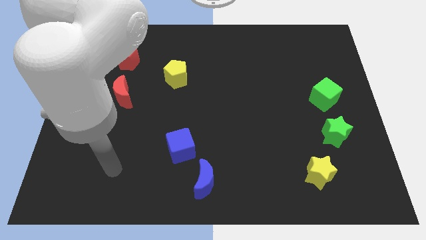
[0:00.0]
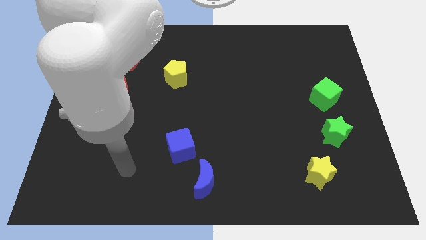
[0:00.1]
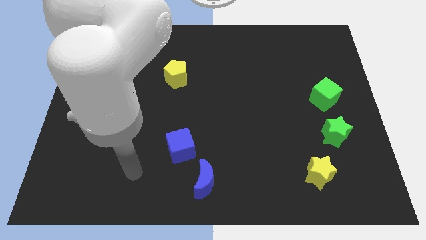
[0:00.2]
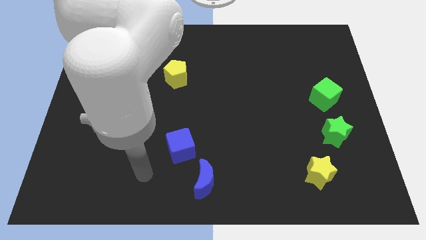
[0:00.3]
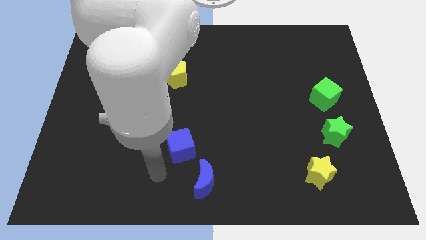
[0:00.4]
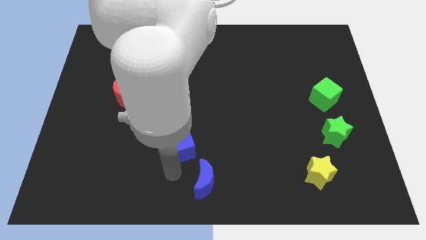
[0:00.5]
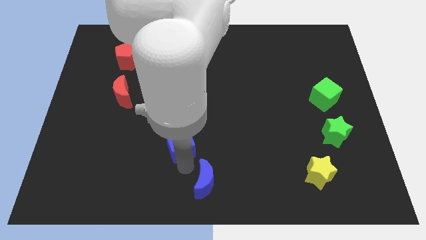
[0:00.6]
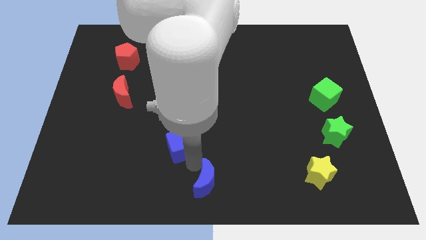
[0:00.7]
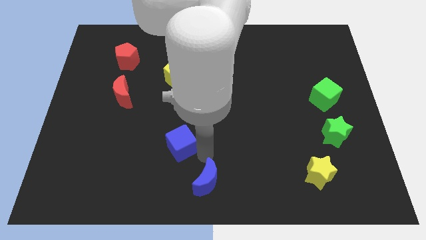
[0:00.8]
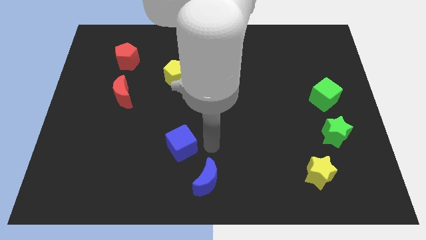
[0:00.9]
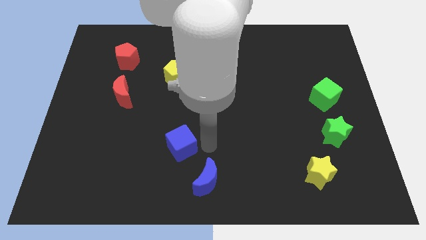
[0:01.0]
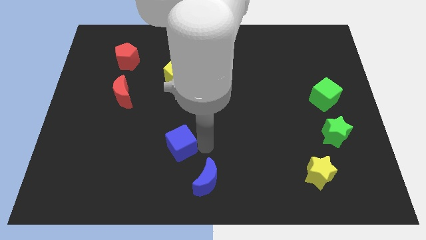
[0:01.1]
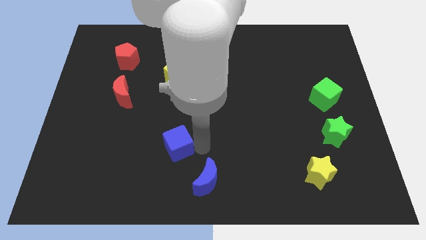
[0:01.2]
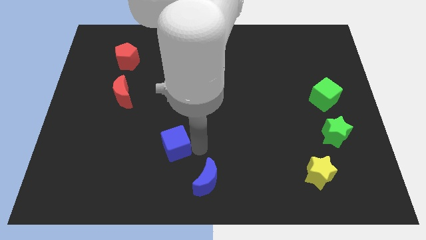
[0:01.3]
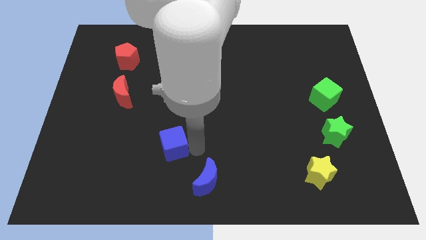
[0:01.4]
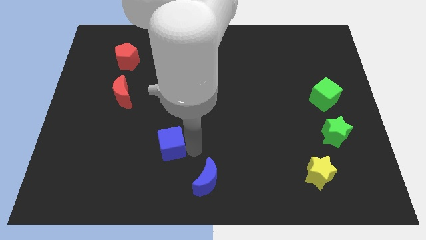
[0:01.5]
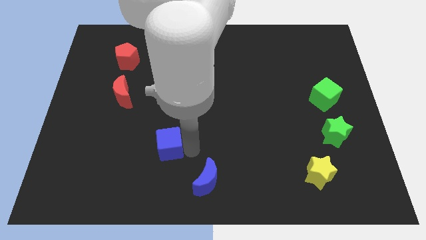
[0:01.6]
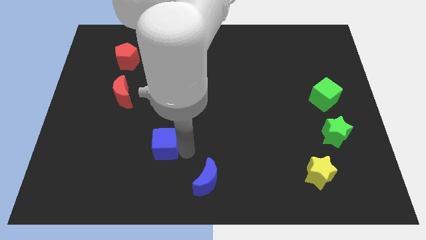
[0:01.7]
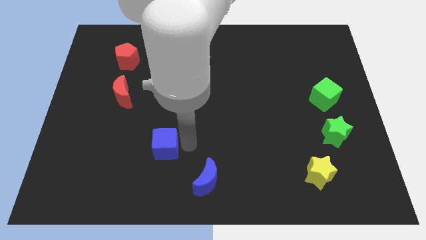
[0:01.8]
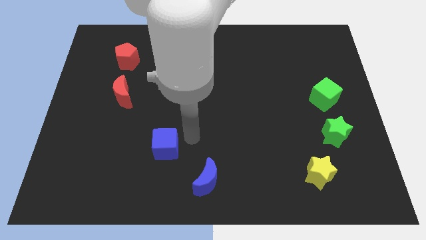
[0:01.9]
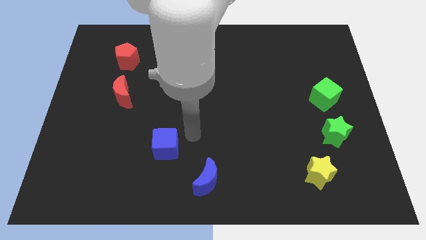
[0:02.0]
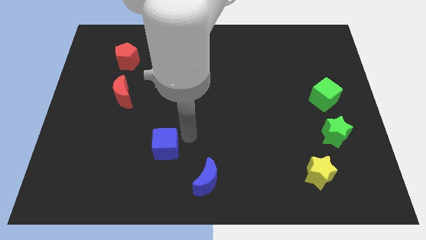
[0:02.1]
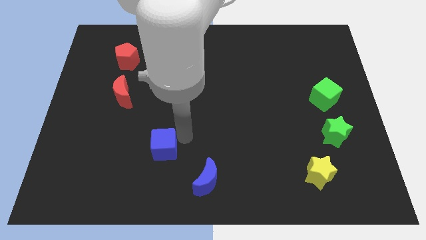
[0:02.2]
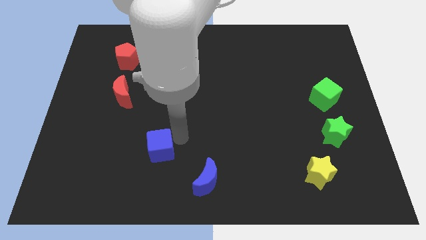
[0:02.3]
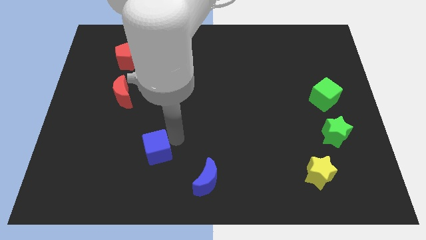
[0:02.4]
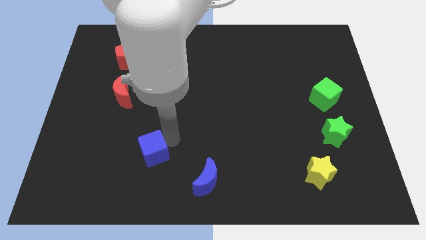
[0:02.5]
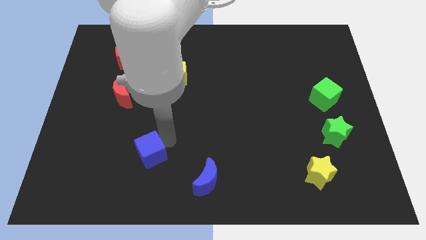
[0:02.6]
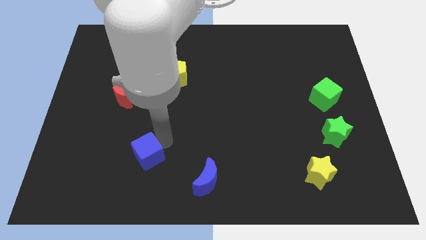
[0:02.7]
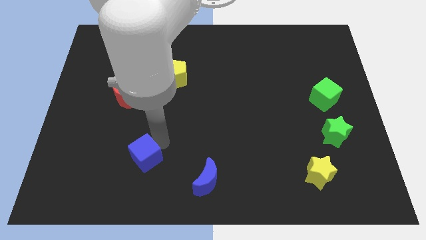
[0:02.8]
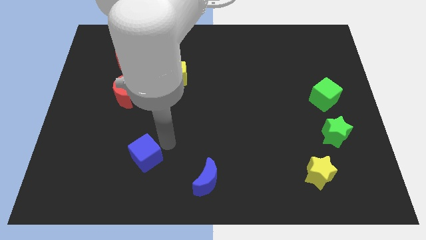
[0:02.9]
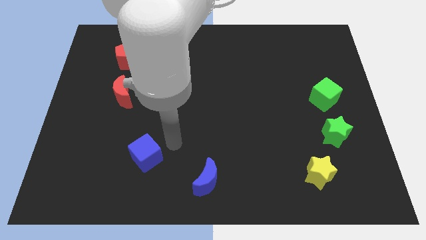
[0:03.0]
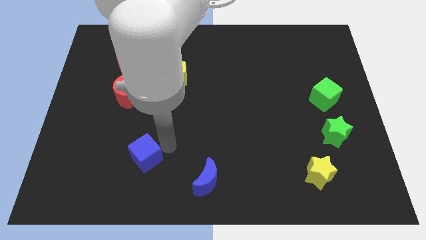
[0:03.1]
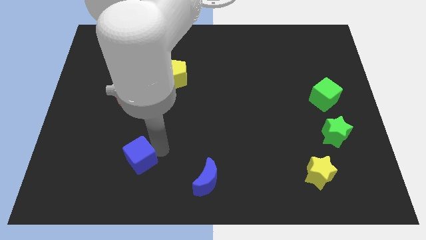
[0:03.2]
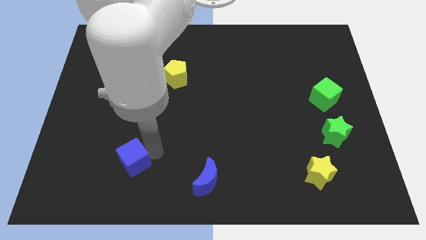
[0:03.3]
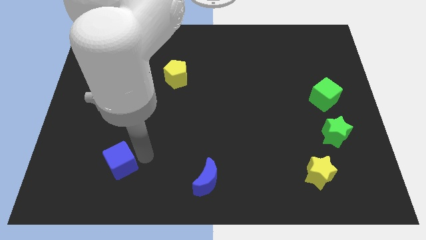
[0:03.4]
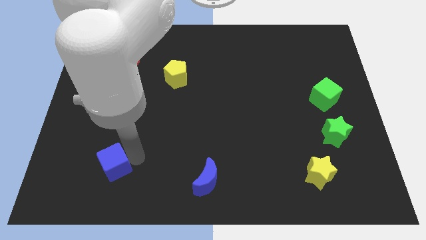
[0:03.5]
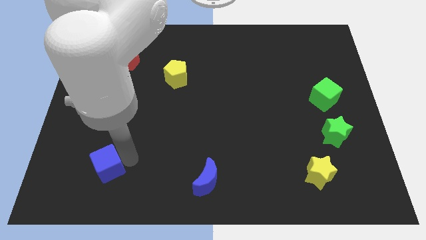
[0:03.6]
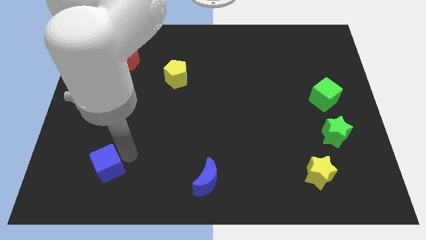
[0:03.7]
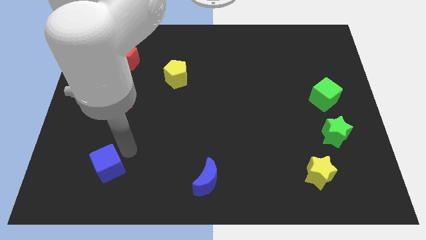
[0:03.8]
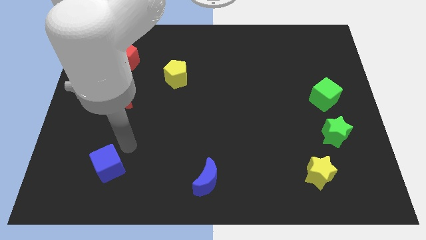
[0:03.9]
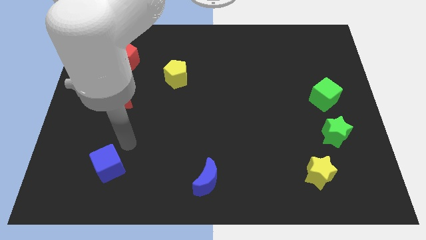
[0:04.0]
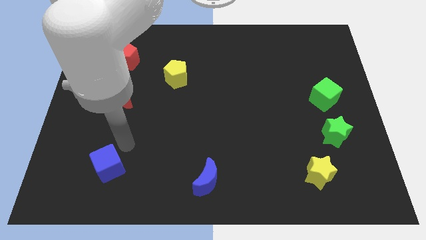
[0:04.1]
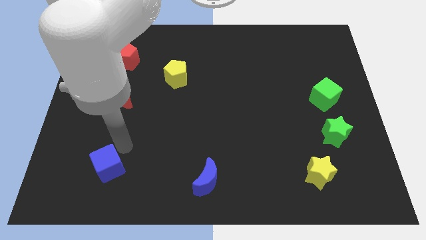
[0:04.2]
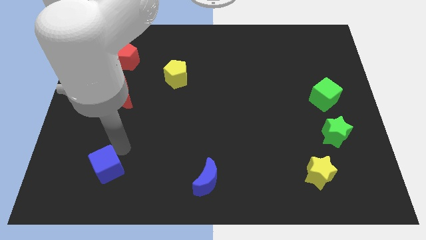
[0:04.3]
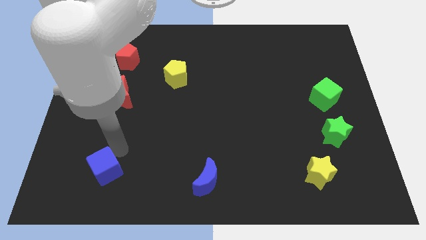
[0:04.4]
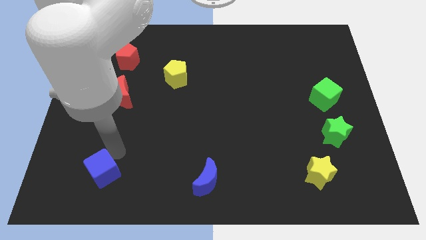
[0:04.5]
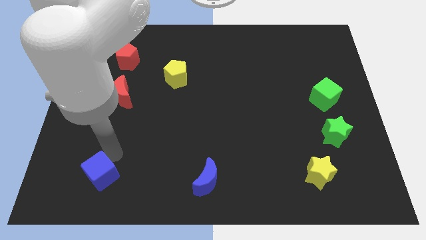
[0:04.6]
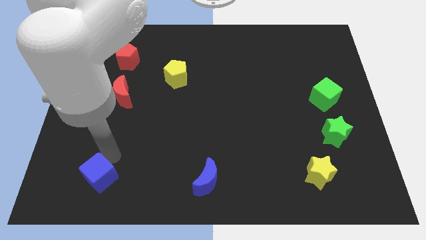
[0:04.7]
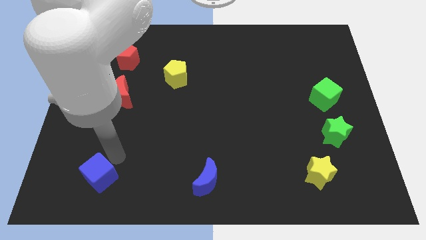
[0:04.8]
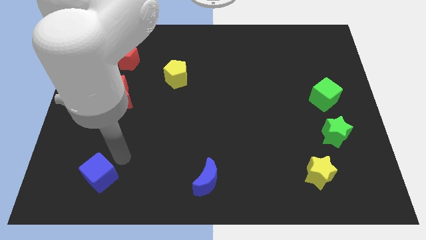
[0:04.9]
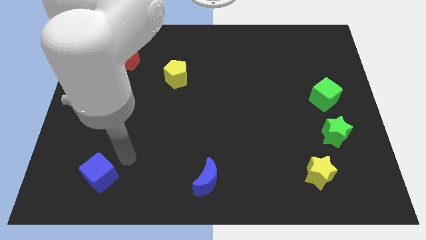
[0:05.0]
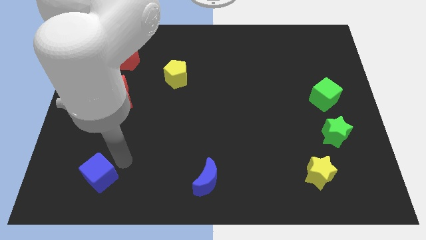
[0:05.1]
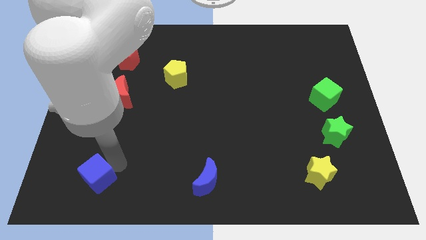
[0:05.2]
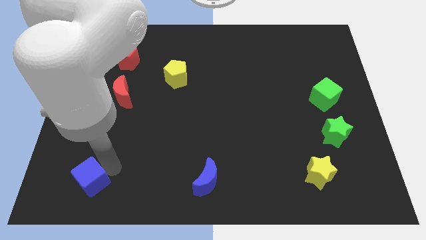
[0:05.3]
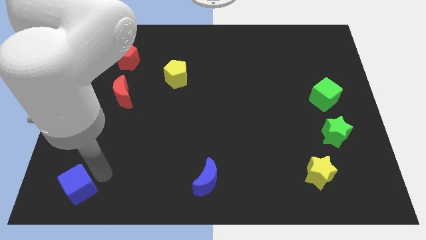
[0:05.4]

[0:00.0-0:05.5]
move the blue cube to the lower left corner

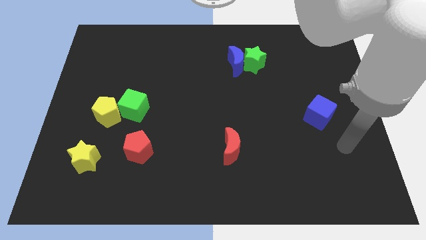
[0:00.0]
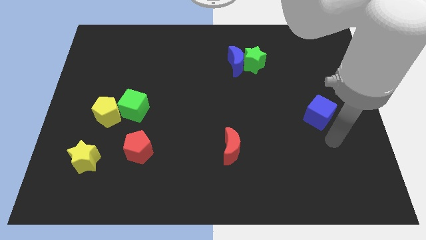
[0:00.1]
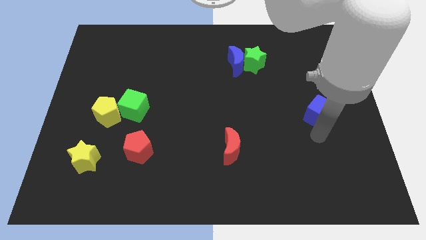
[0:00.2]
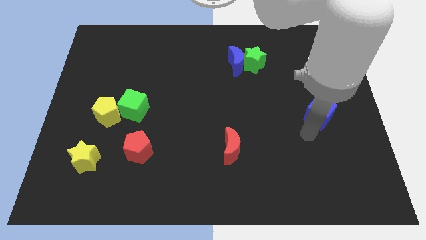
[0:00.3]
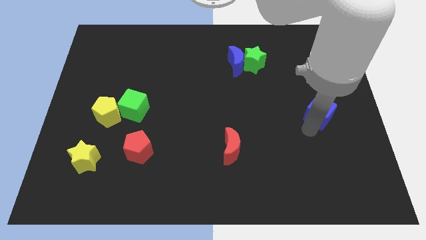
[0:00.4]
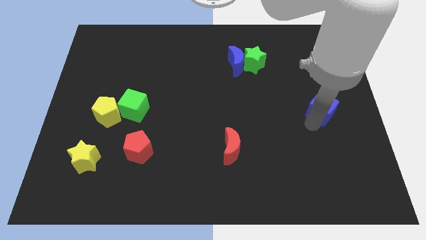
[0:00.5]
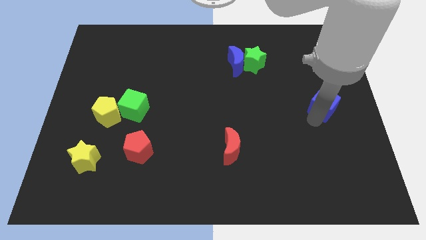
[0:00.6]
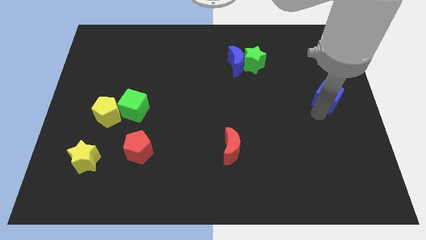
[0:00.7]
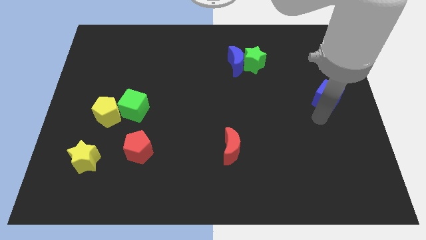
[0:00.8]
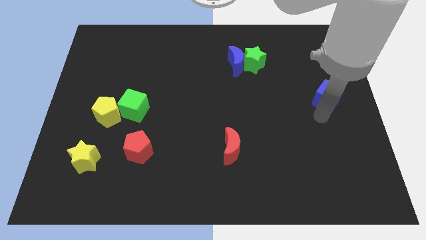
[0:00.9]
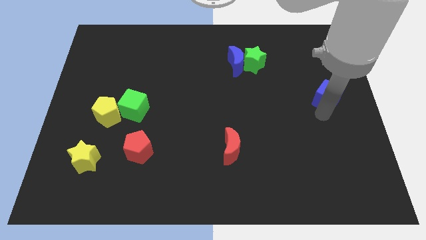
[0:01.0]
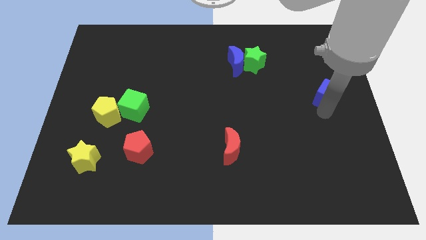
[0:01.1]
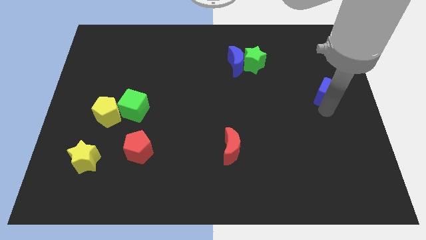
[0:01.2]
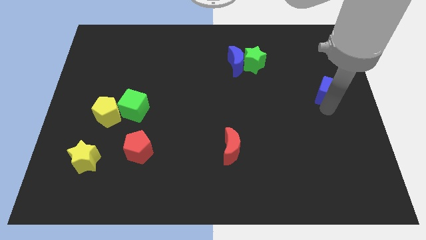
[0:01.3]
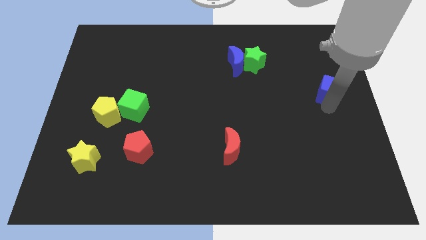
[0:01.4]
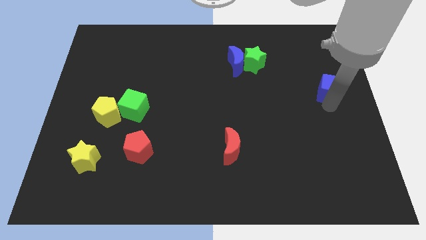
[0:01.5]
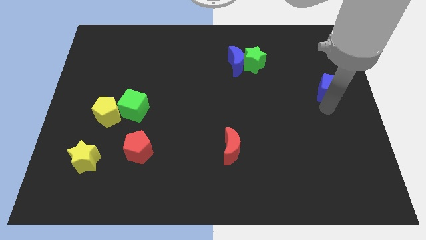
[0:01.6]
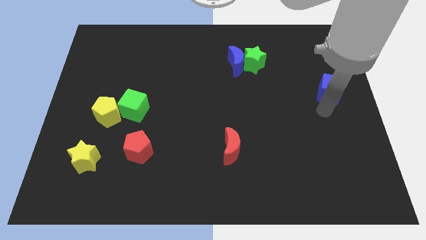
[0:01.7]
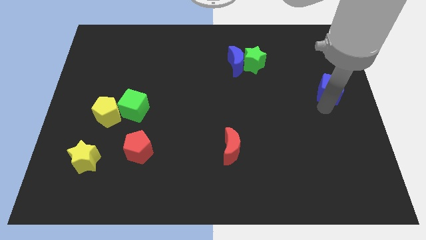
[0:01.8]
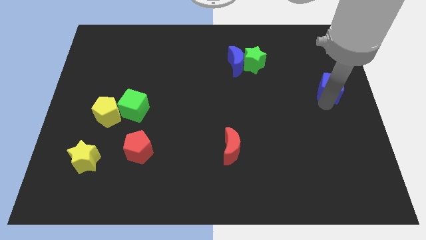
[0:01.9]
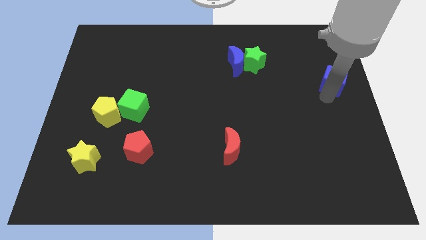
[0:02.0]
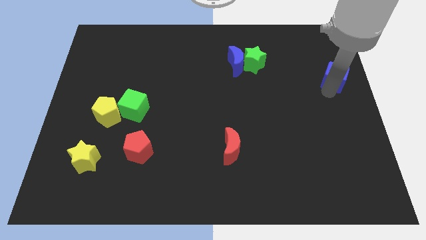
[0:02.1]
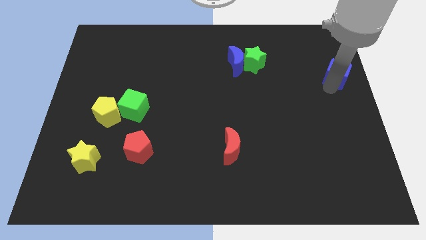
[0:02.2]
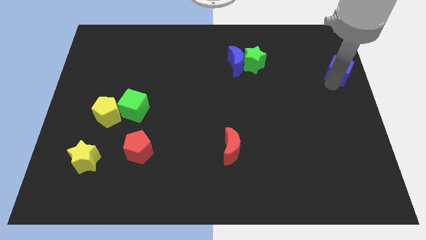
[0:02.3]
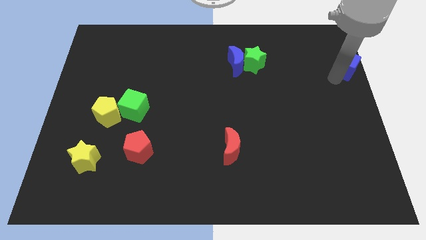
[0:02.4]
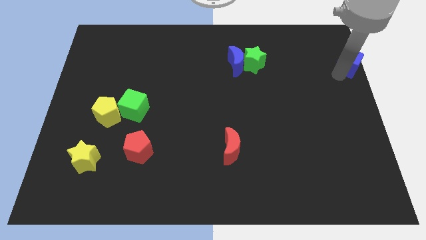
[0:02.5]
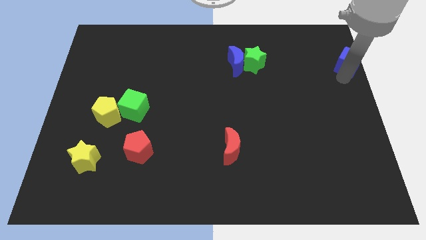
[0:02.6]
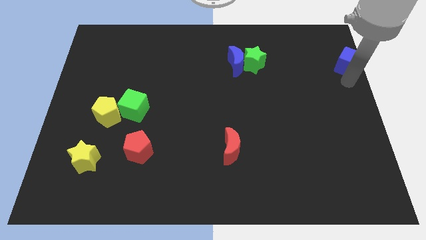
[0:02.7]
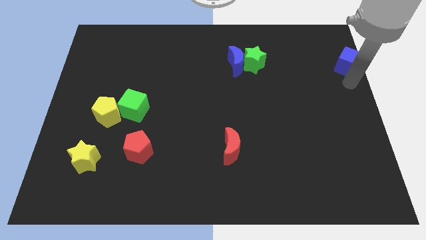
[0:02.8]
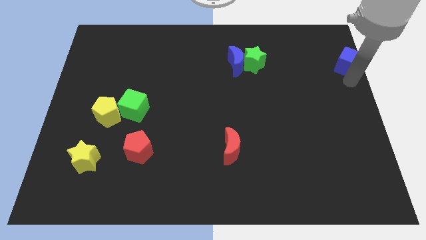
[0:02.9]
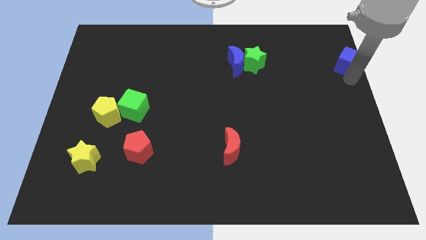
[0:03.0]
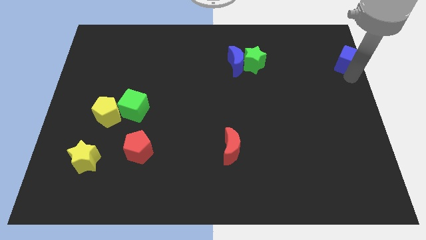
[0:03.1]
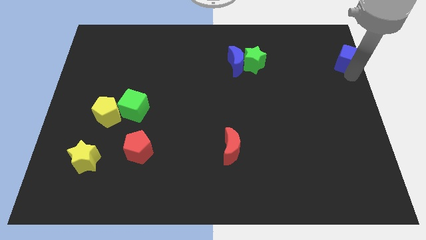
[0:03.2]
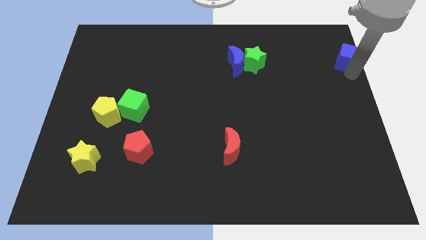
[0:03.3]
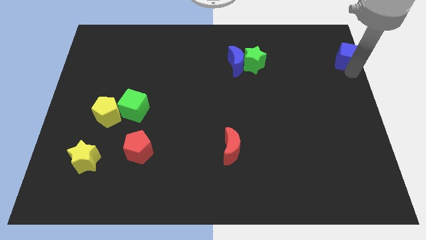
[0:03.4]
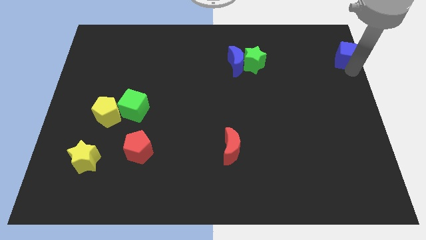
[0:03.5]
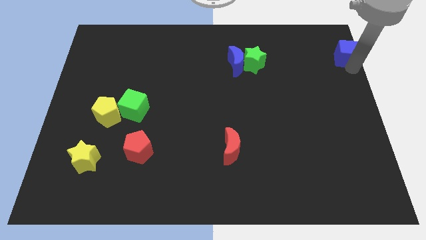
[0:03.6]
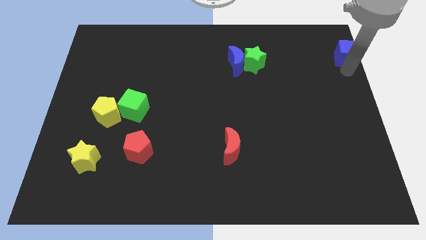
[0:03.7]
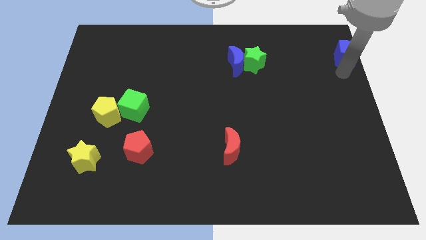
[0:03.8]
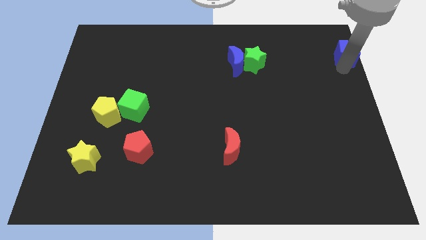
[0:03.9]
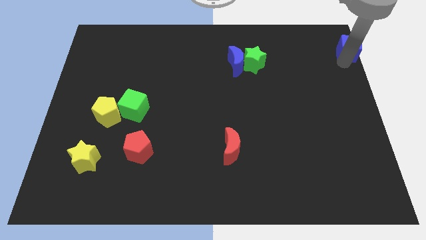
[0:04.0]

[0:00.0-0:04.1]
slide the blue cube to the top right corner
